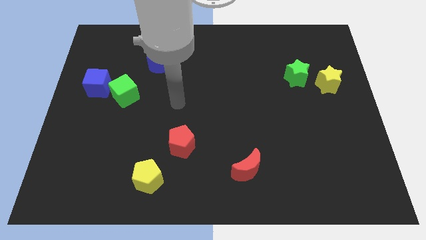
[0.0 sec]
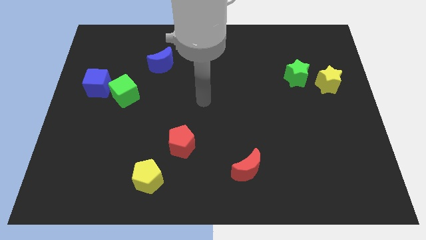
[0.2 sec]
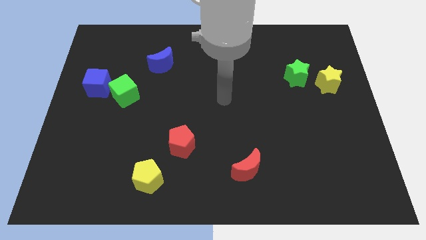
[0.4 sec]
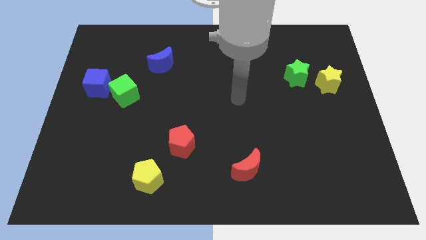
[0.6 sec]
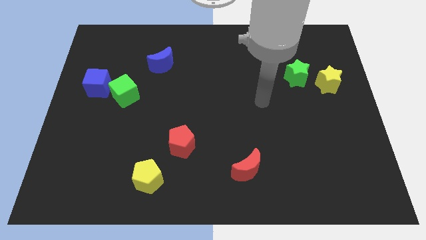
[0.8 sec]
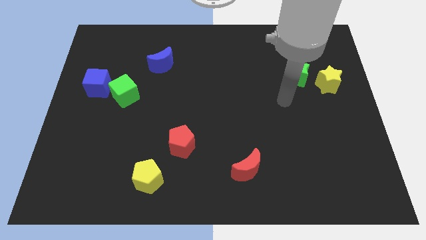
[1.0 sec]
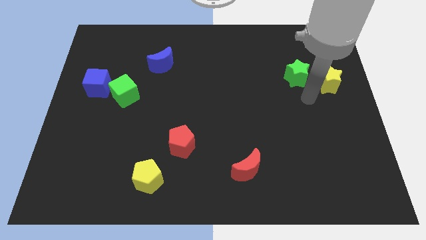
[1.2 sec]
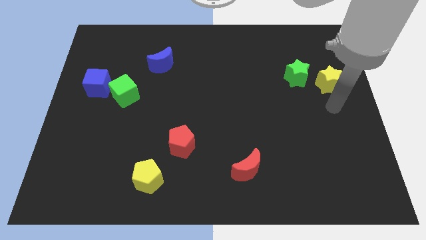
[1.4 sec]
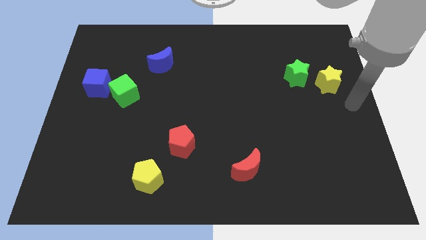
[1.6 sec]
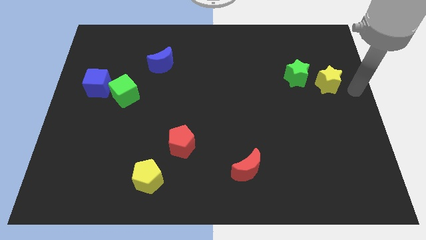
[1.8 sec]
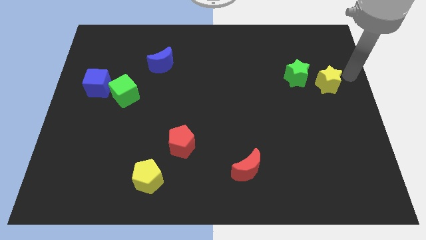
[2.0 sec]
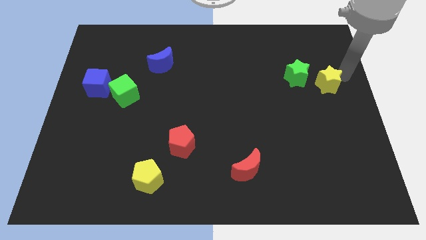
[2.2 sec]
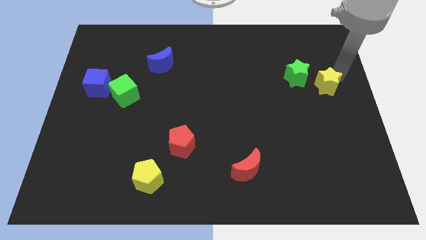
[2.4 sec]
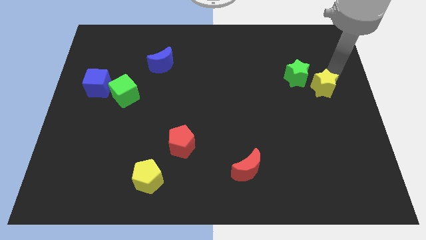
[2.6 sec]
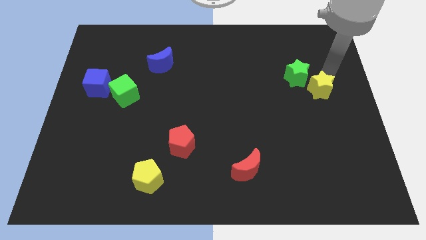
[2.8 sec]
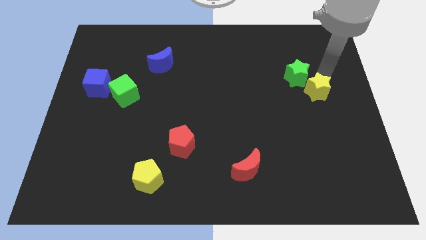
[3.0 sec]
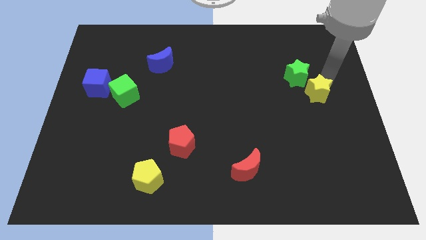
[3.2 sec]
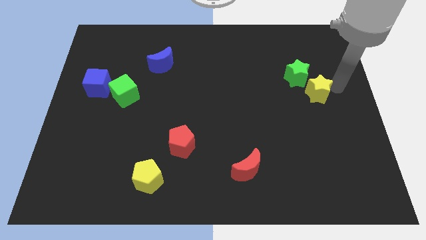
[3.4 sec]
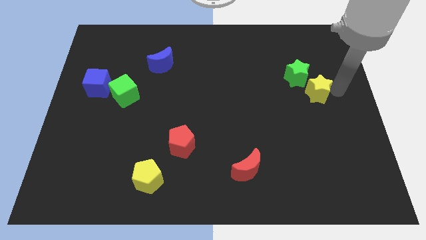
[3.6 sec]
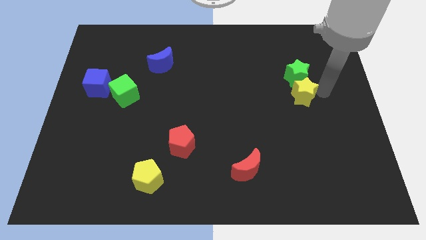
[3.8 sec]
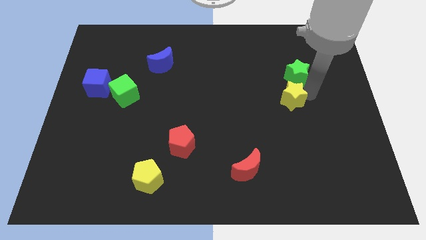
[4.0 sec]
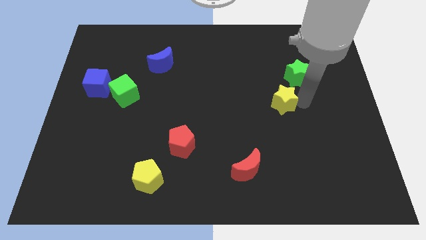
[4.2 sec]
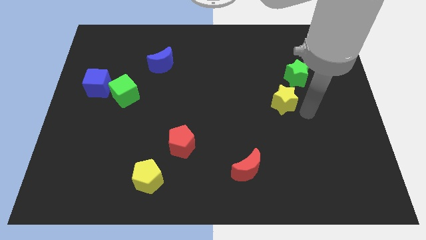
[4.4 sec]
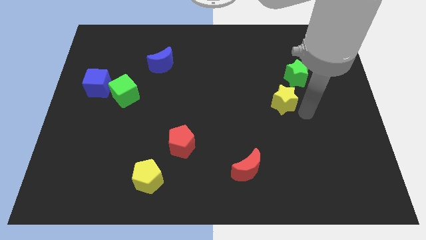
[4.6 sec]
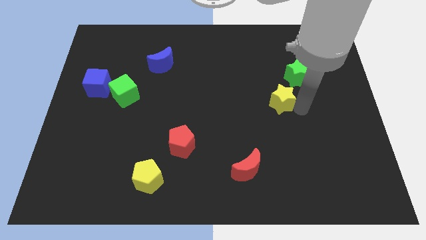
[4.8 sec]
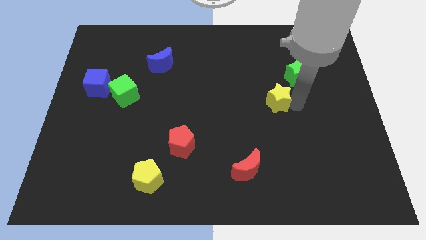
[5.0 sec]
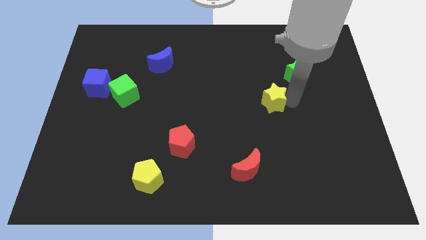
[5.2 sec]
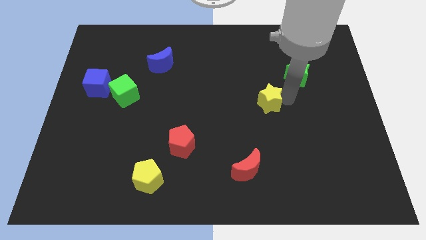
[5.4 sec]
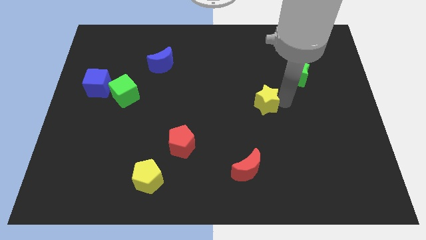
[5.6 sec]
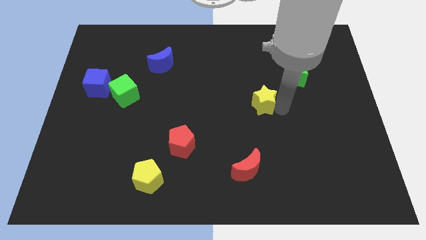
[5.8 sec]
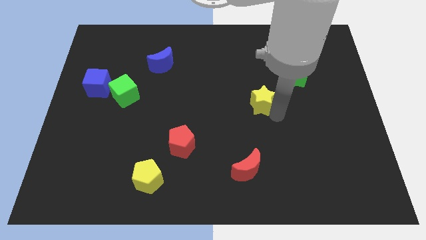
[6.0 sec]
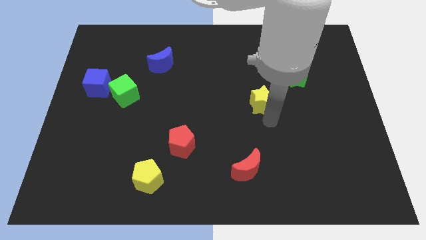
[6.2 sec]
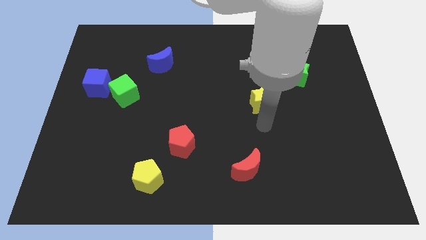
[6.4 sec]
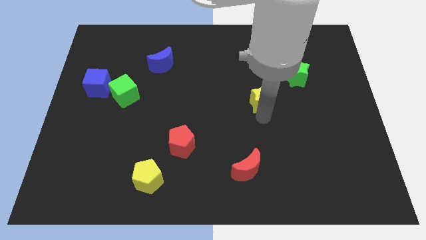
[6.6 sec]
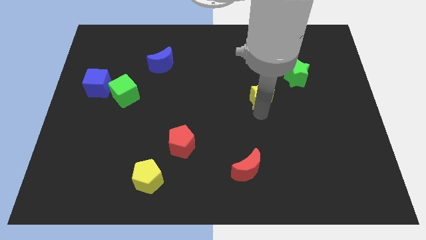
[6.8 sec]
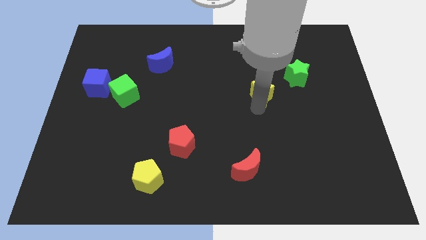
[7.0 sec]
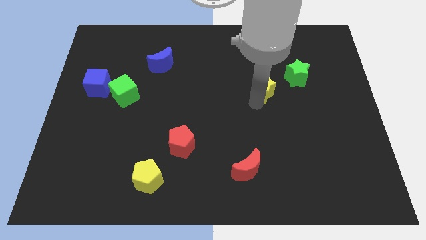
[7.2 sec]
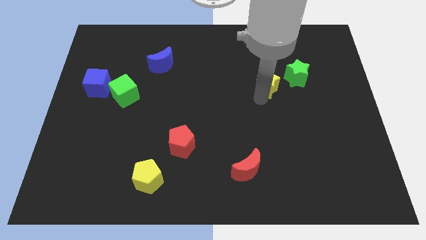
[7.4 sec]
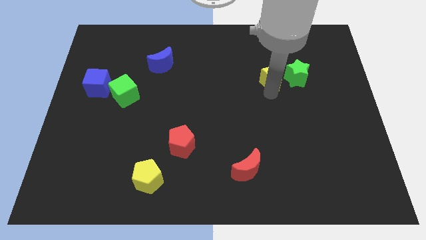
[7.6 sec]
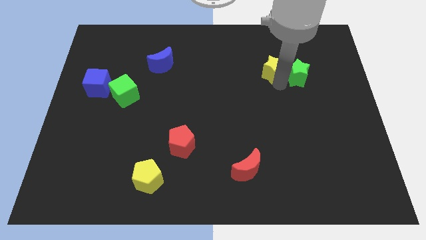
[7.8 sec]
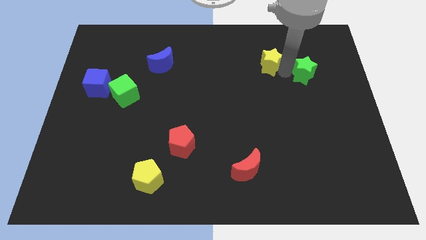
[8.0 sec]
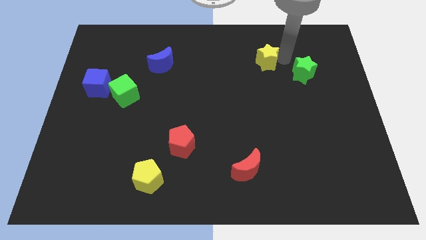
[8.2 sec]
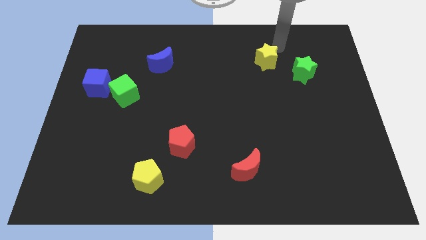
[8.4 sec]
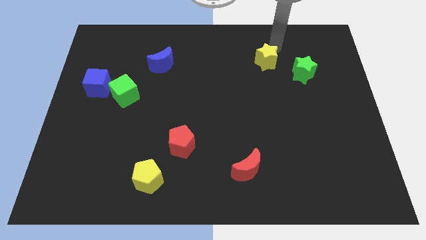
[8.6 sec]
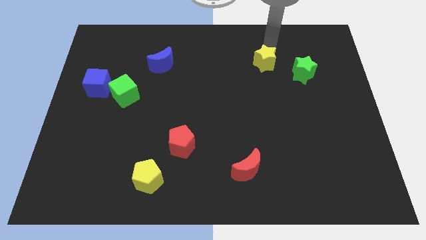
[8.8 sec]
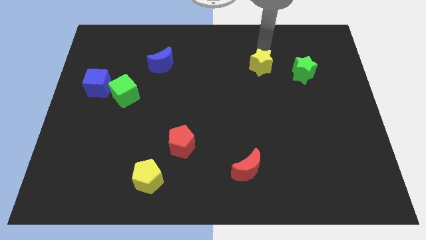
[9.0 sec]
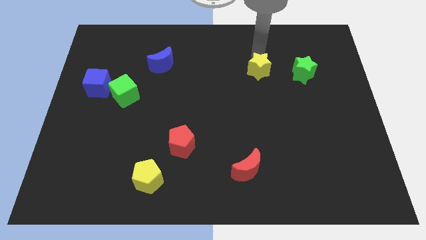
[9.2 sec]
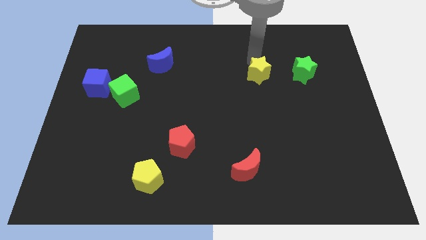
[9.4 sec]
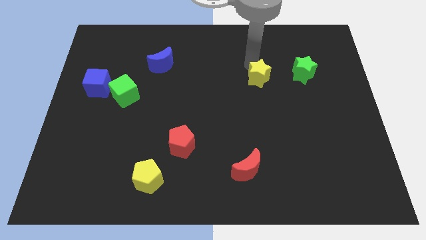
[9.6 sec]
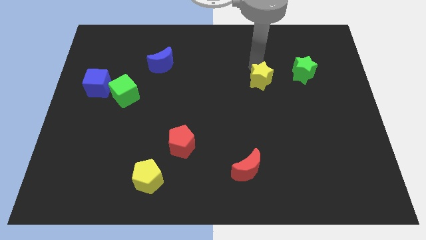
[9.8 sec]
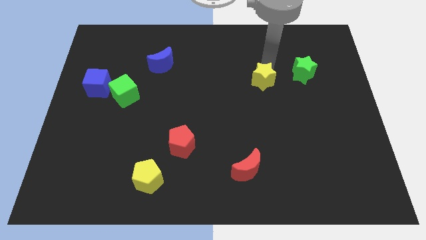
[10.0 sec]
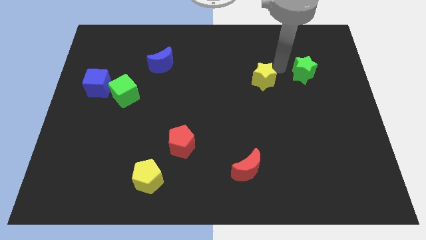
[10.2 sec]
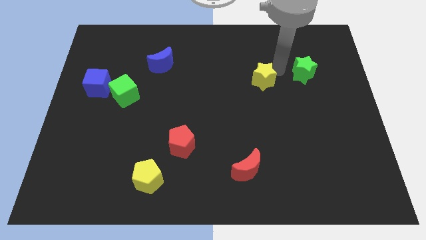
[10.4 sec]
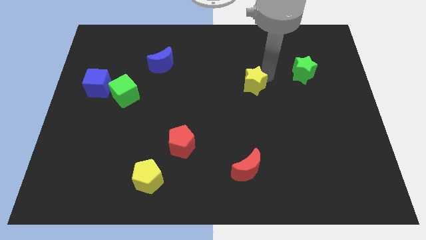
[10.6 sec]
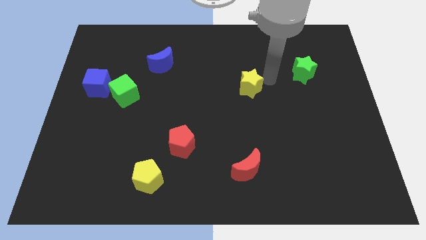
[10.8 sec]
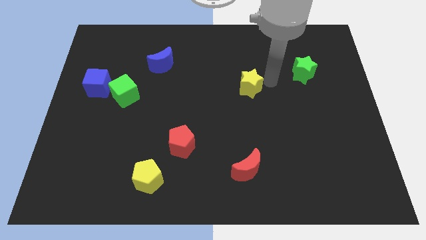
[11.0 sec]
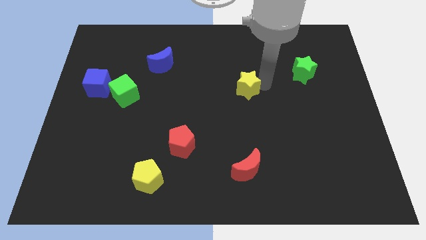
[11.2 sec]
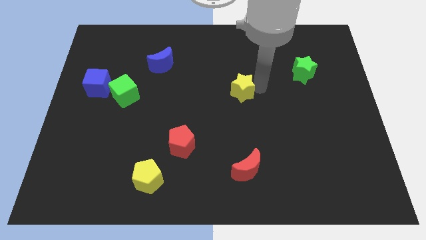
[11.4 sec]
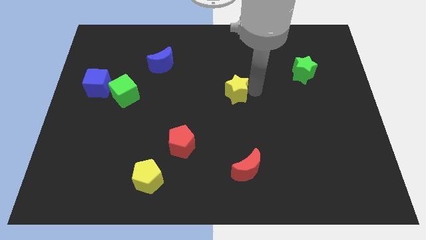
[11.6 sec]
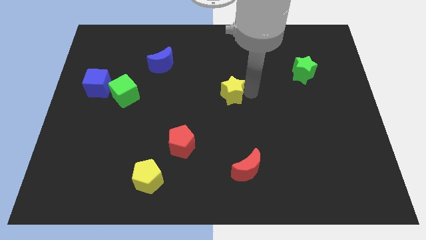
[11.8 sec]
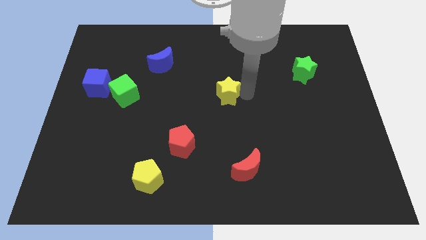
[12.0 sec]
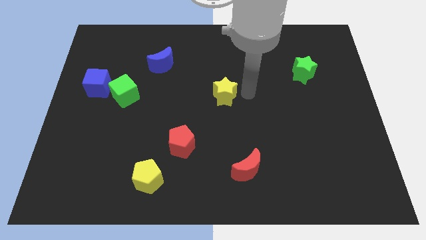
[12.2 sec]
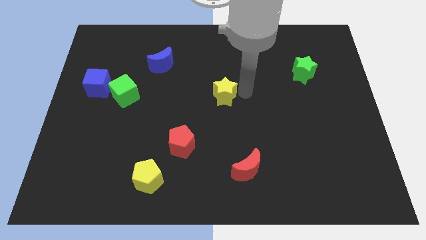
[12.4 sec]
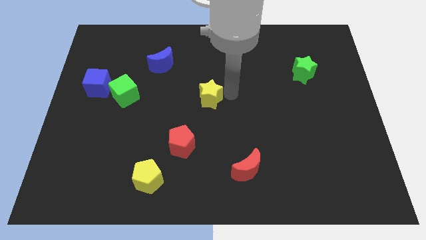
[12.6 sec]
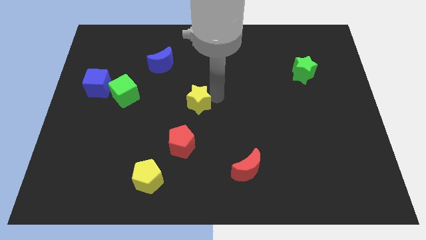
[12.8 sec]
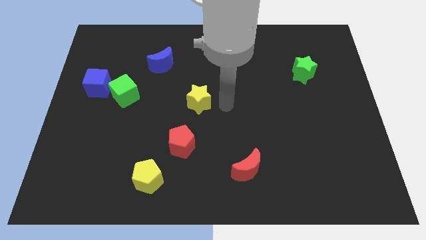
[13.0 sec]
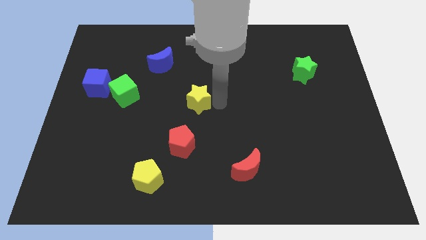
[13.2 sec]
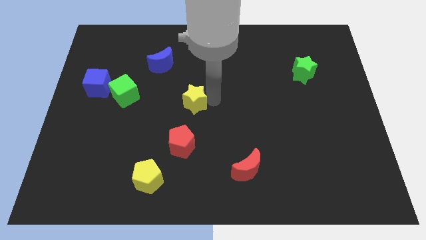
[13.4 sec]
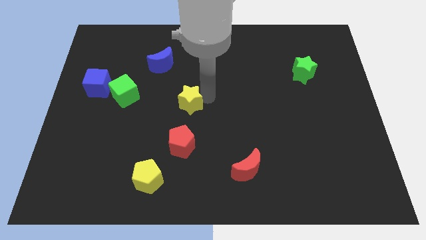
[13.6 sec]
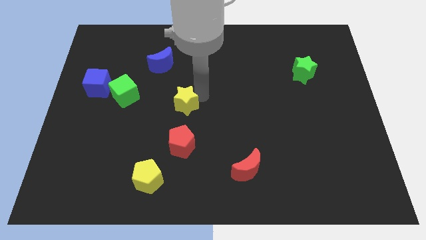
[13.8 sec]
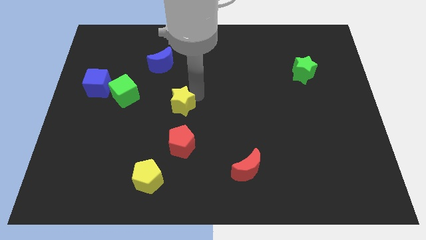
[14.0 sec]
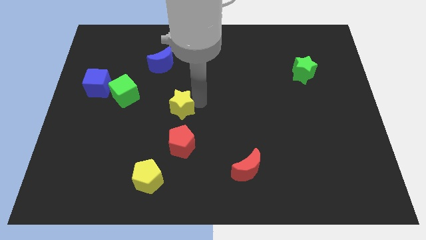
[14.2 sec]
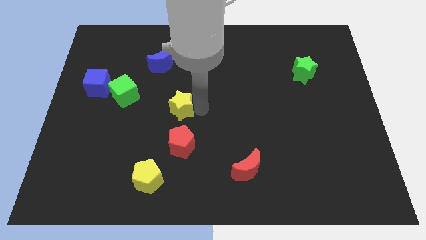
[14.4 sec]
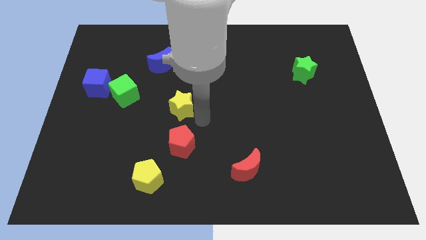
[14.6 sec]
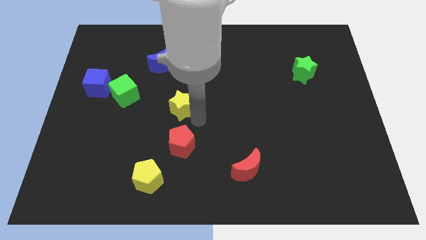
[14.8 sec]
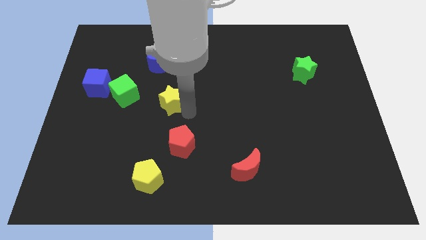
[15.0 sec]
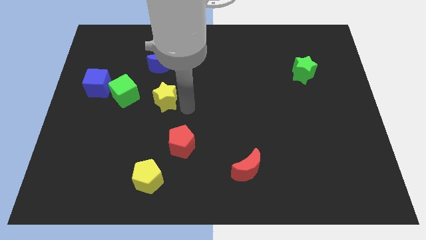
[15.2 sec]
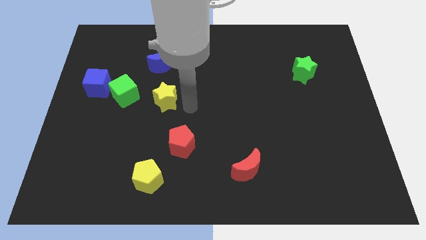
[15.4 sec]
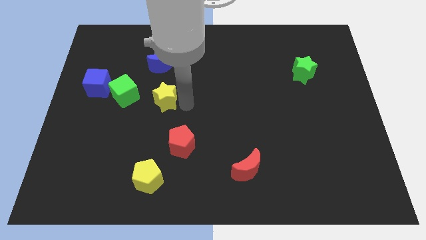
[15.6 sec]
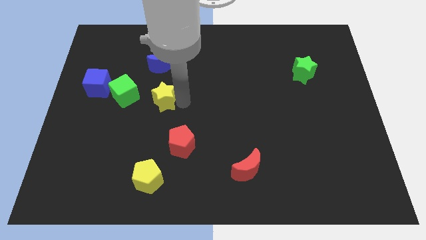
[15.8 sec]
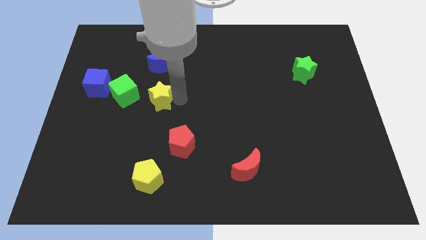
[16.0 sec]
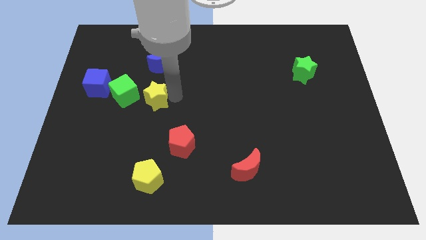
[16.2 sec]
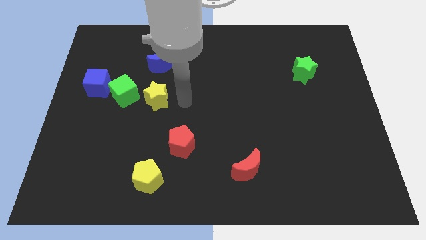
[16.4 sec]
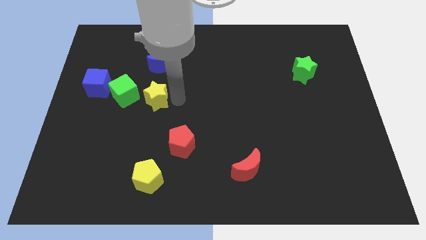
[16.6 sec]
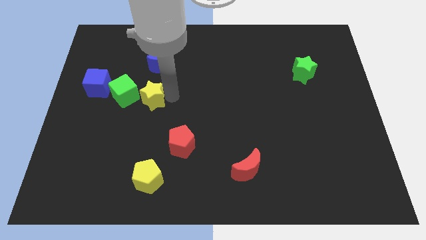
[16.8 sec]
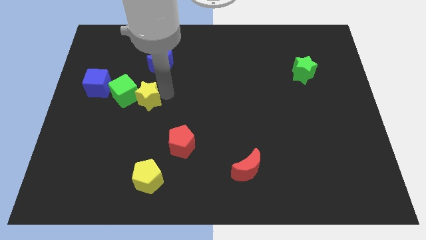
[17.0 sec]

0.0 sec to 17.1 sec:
push the yellow star next to the green cube
